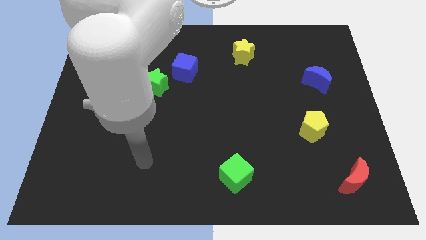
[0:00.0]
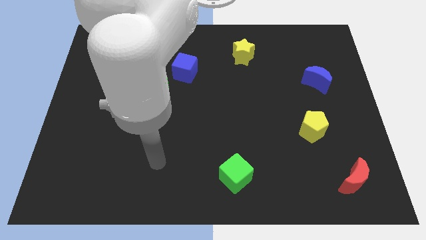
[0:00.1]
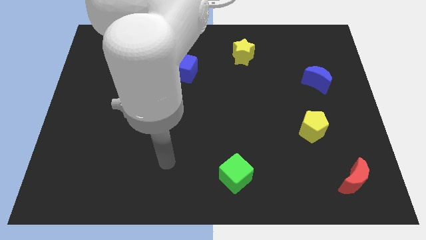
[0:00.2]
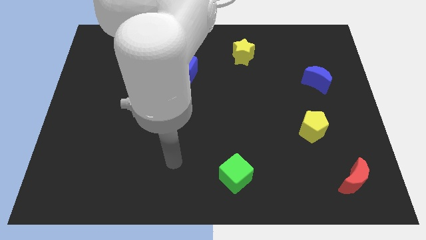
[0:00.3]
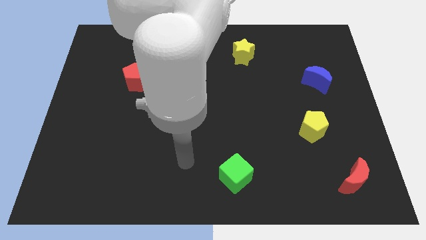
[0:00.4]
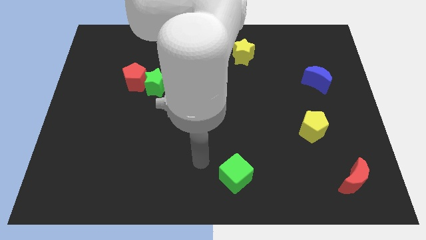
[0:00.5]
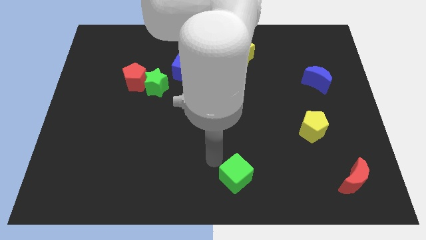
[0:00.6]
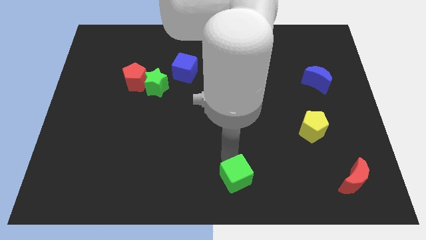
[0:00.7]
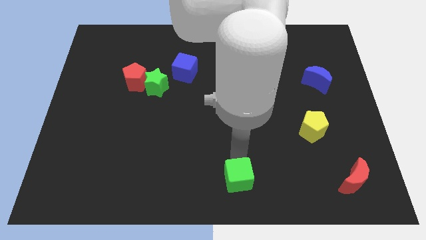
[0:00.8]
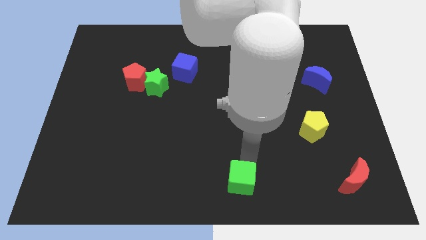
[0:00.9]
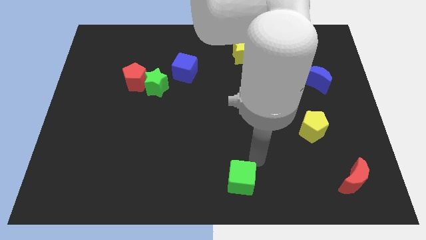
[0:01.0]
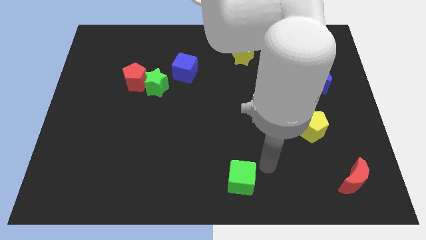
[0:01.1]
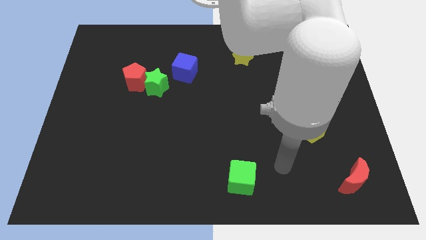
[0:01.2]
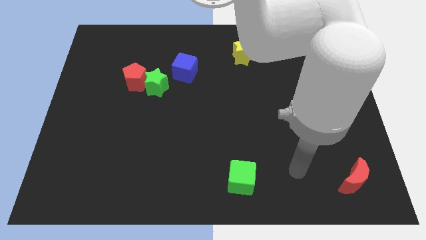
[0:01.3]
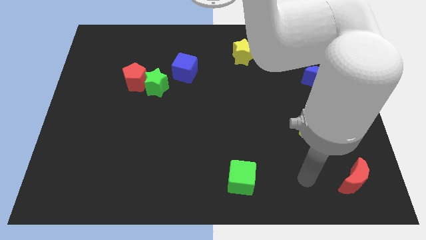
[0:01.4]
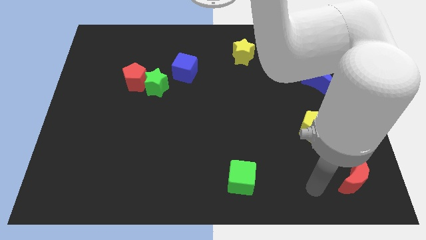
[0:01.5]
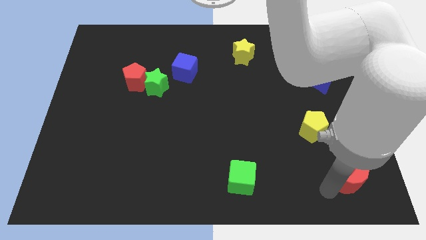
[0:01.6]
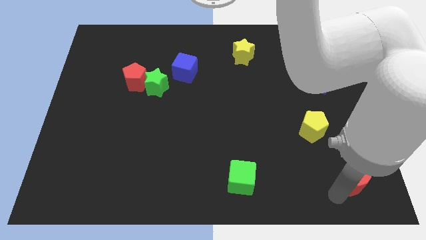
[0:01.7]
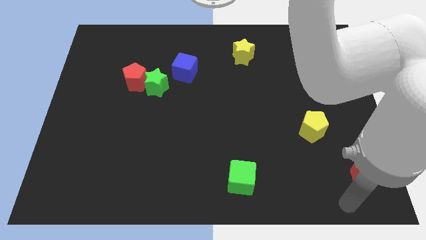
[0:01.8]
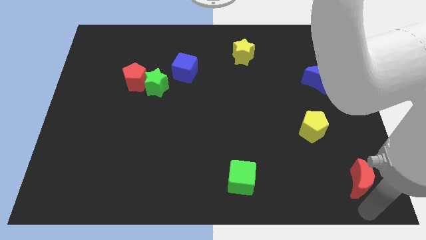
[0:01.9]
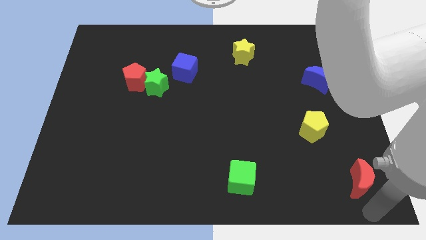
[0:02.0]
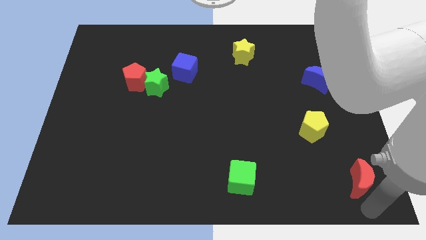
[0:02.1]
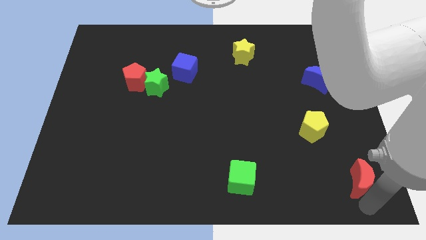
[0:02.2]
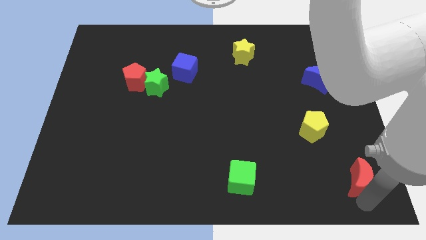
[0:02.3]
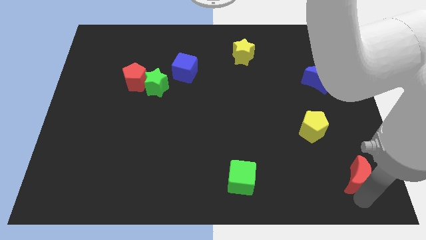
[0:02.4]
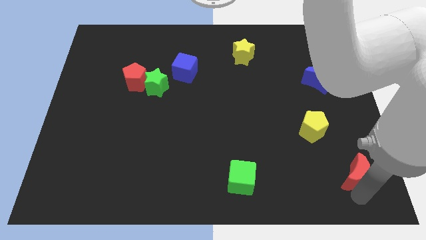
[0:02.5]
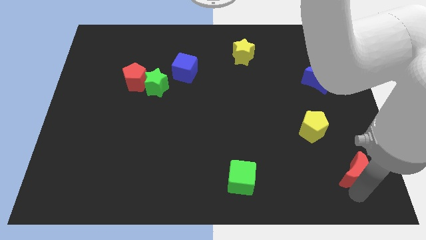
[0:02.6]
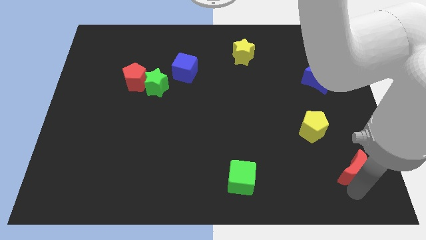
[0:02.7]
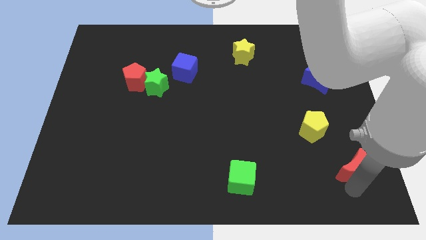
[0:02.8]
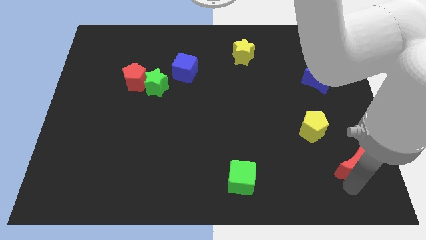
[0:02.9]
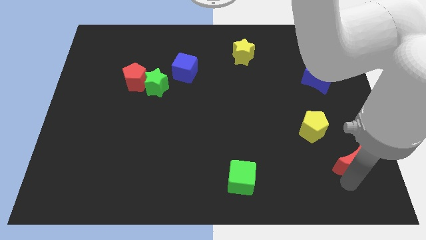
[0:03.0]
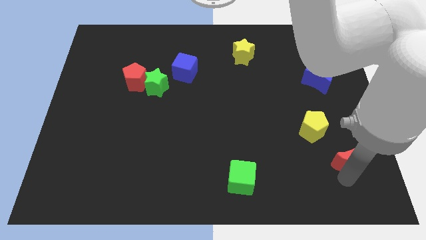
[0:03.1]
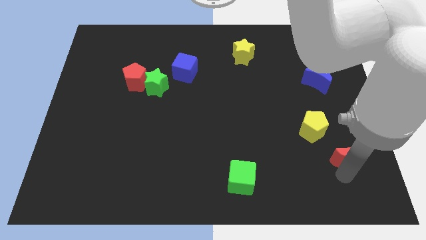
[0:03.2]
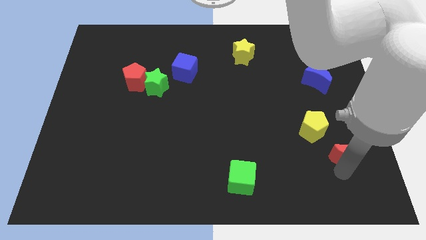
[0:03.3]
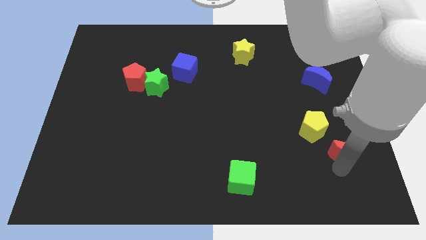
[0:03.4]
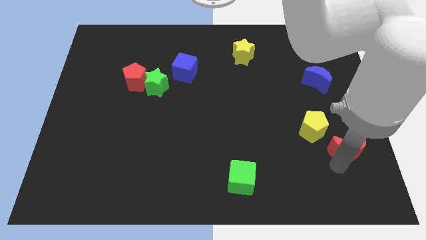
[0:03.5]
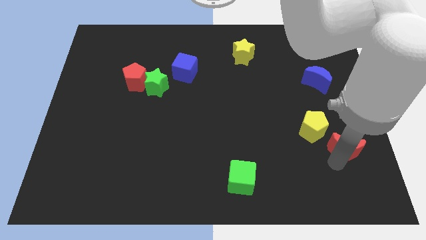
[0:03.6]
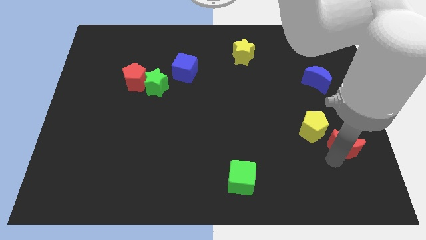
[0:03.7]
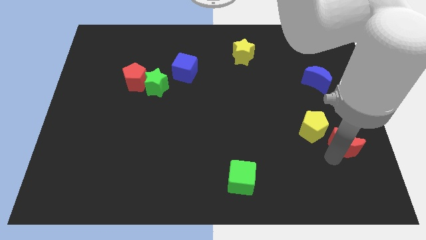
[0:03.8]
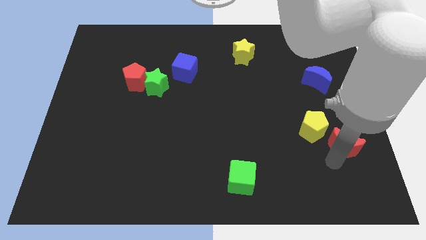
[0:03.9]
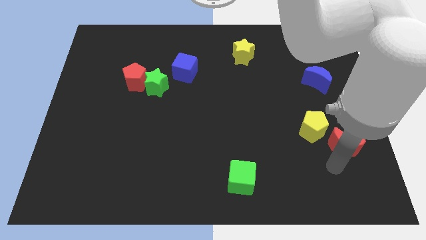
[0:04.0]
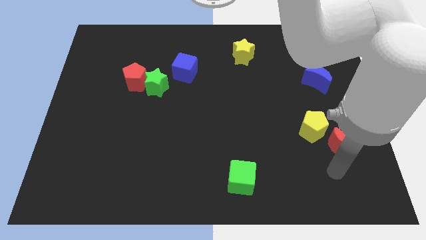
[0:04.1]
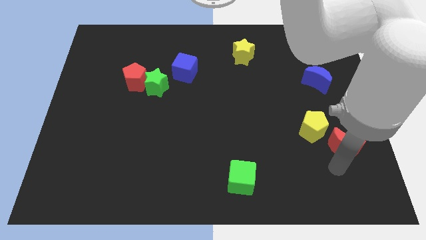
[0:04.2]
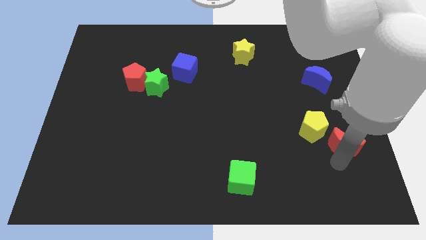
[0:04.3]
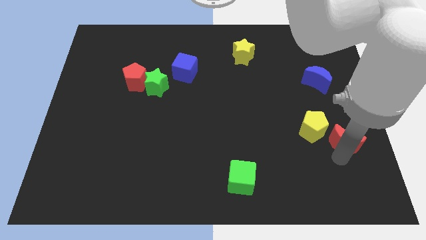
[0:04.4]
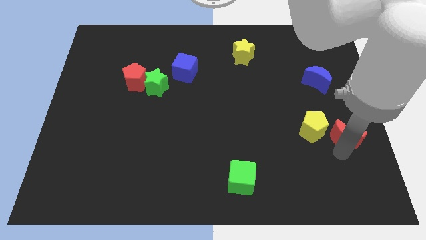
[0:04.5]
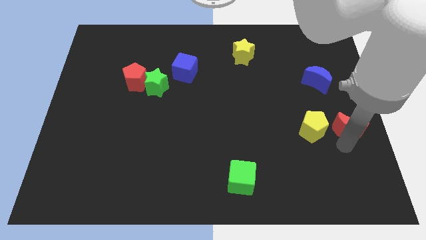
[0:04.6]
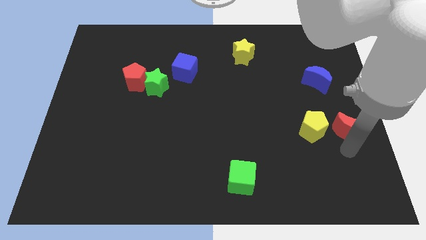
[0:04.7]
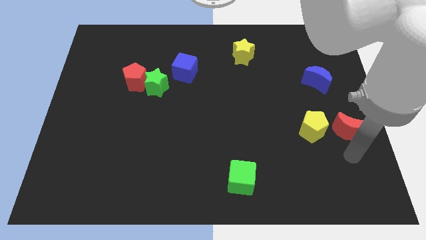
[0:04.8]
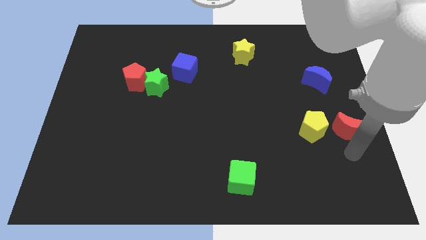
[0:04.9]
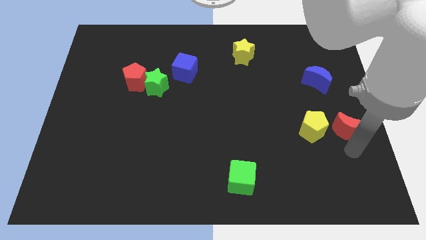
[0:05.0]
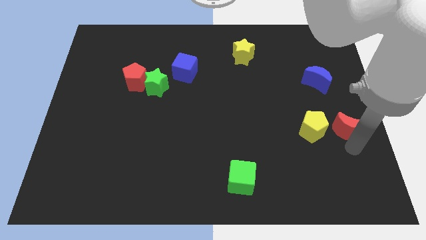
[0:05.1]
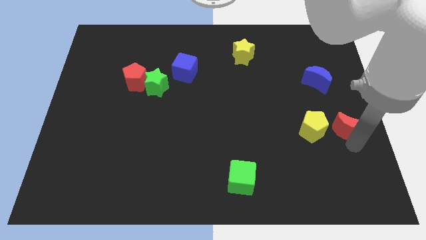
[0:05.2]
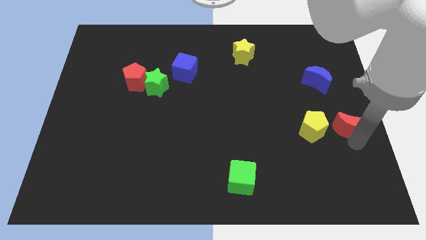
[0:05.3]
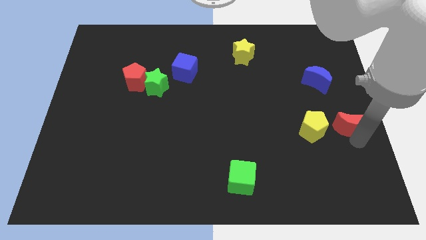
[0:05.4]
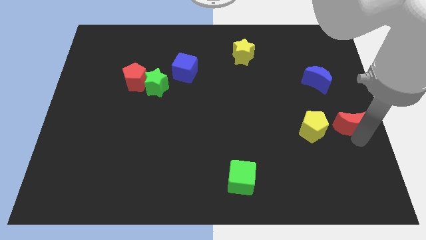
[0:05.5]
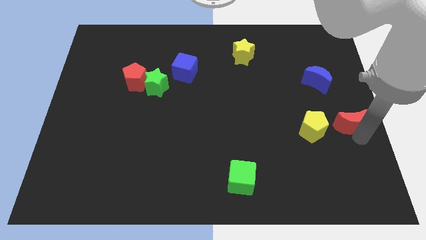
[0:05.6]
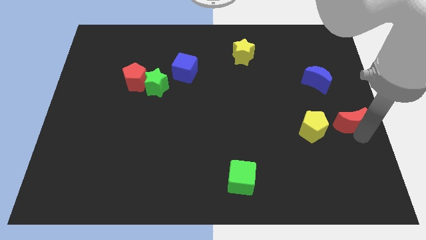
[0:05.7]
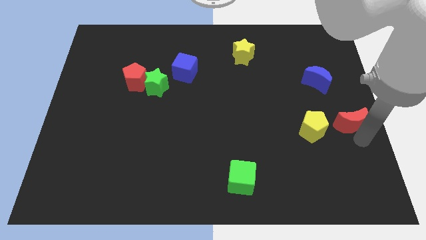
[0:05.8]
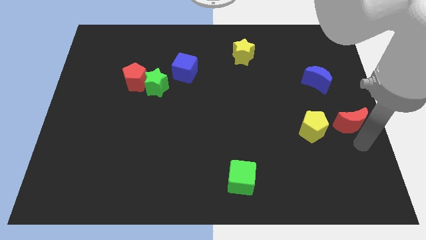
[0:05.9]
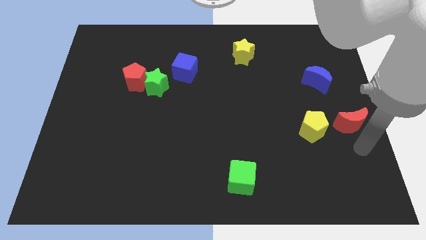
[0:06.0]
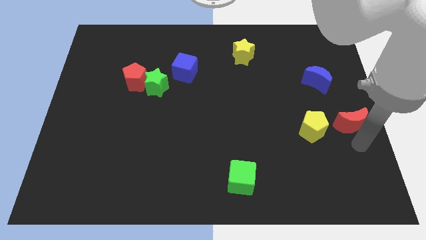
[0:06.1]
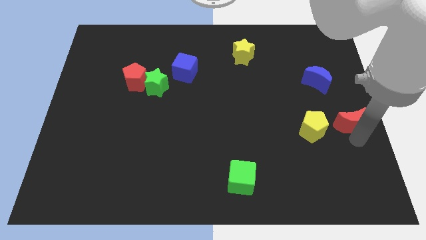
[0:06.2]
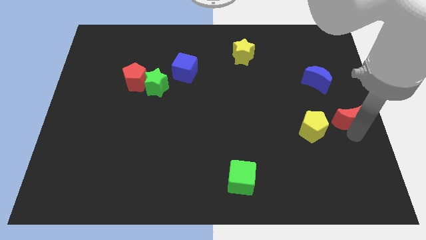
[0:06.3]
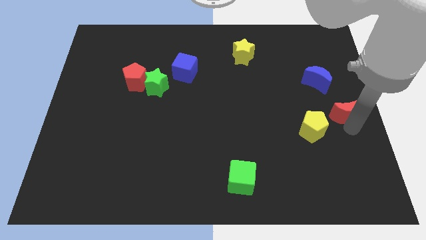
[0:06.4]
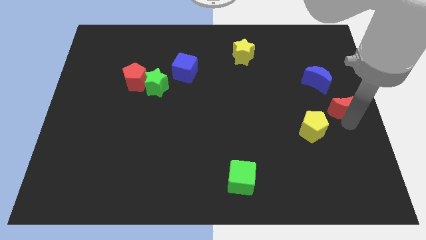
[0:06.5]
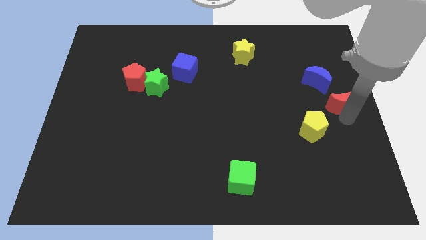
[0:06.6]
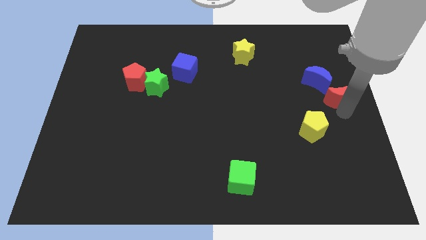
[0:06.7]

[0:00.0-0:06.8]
slide the red moon upwards

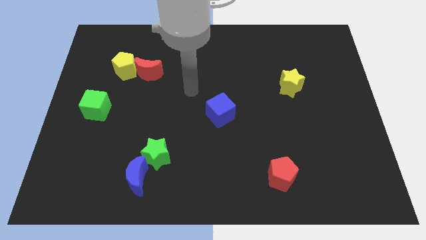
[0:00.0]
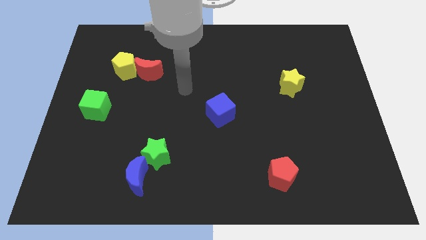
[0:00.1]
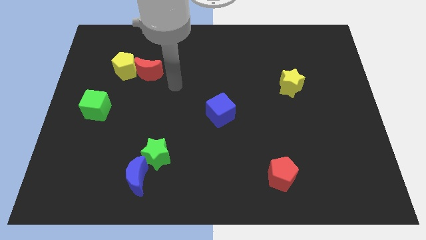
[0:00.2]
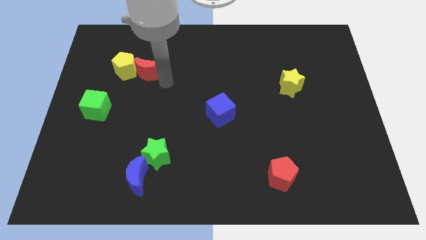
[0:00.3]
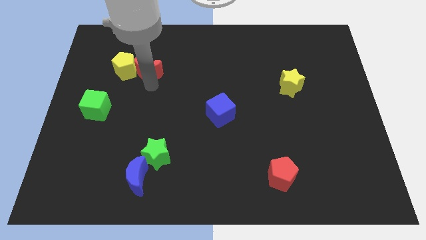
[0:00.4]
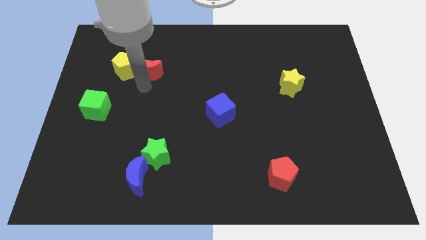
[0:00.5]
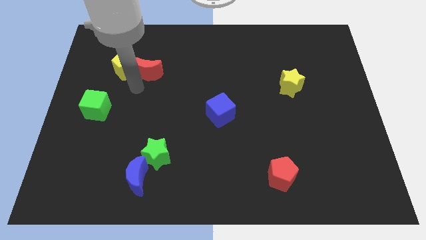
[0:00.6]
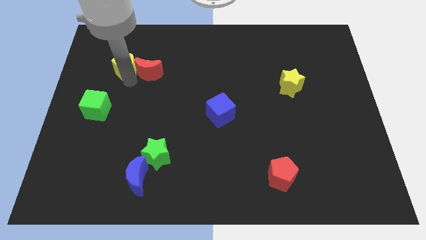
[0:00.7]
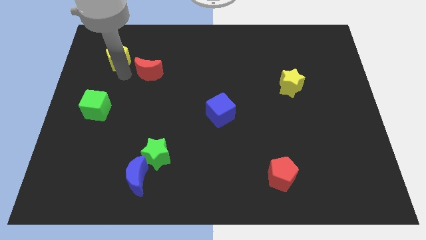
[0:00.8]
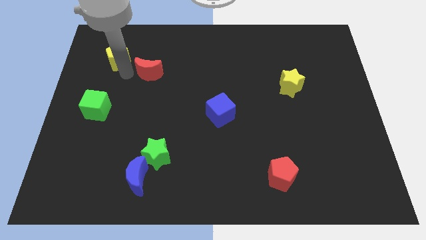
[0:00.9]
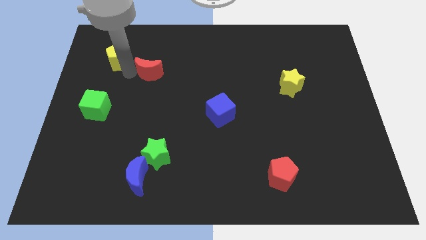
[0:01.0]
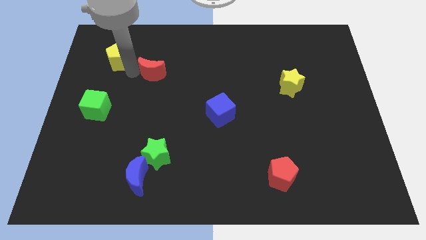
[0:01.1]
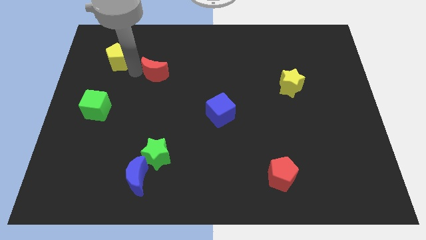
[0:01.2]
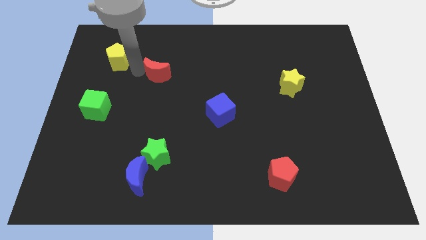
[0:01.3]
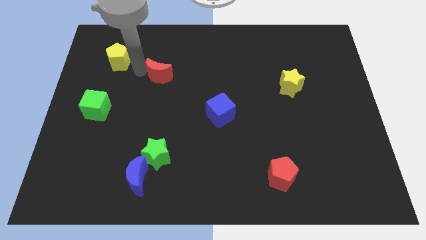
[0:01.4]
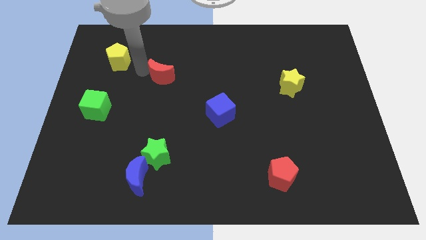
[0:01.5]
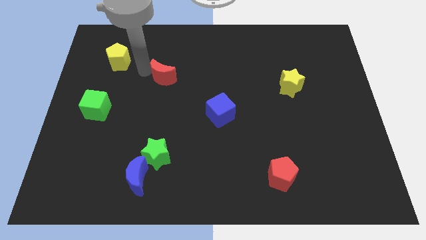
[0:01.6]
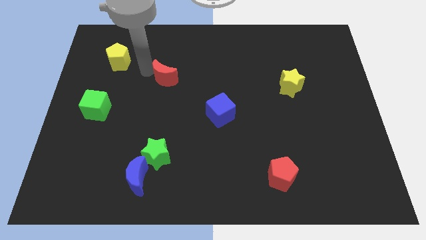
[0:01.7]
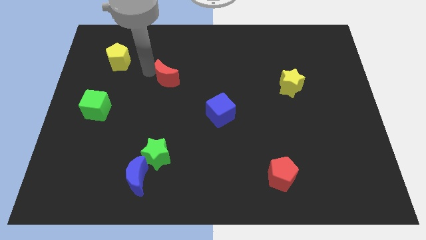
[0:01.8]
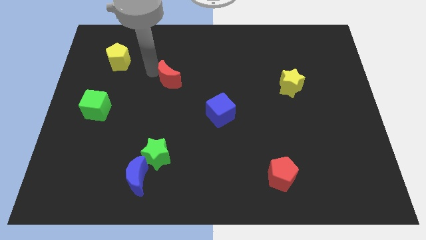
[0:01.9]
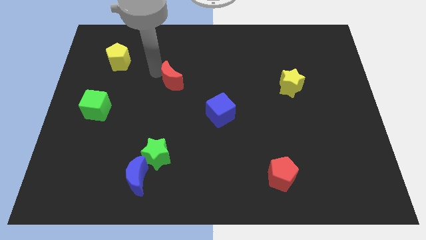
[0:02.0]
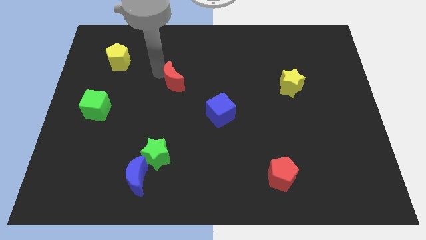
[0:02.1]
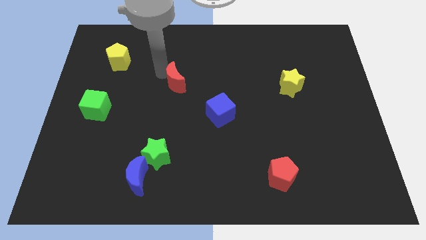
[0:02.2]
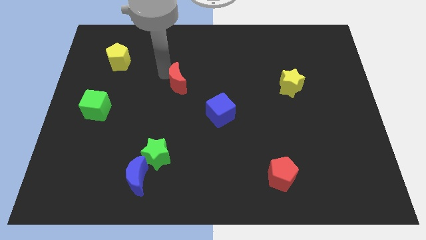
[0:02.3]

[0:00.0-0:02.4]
slide the red moon a bit to the right
